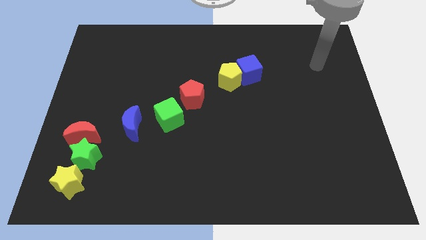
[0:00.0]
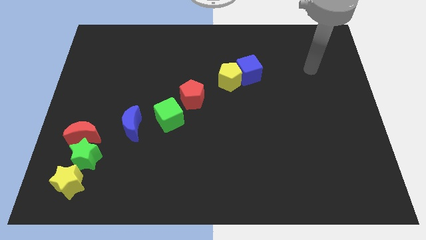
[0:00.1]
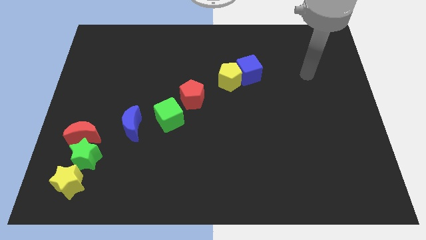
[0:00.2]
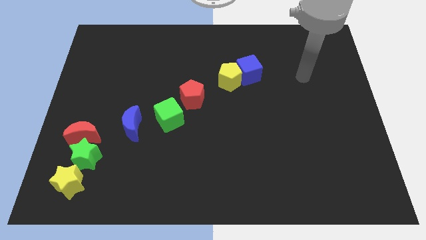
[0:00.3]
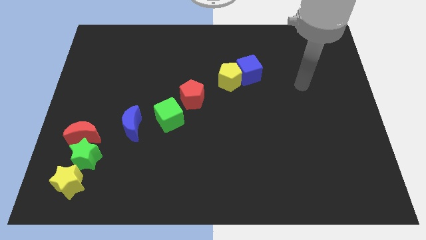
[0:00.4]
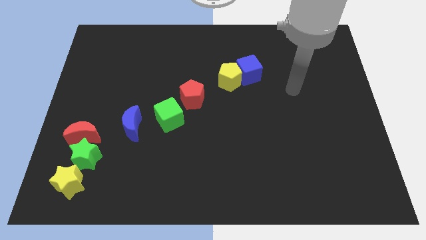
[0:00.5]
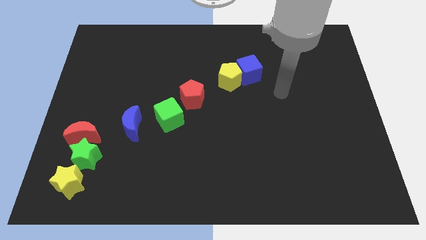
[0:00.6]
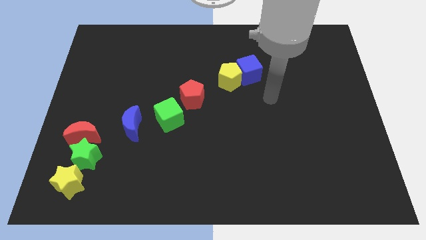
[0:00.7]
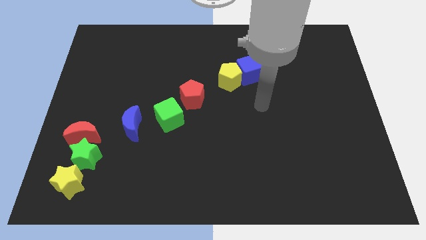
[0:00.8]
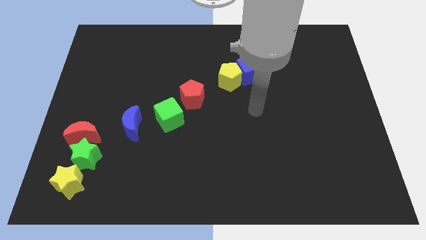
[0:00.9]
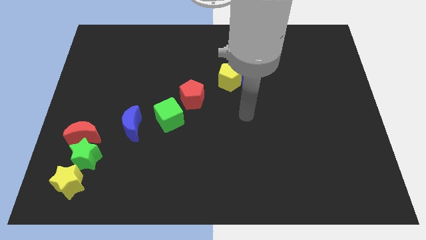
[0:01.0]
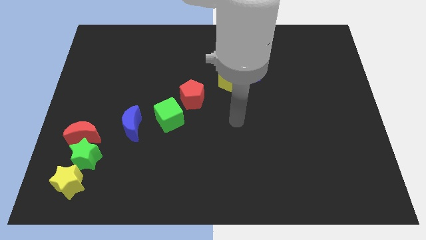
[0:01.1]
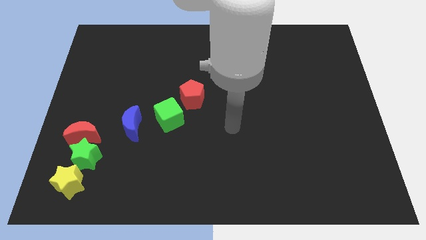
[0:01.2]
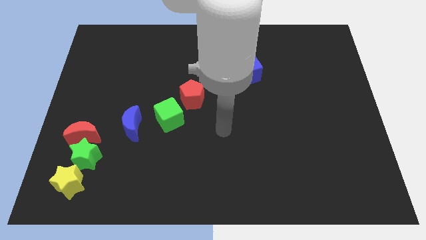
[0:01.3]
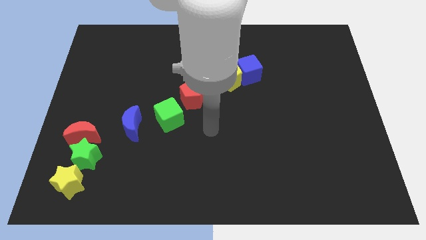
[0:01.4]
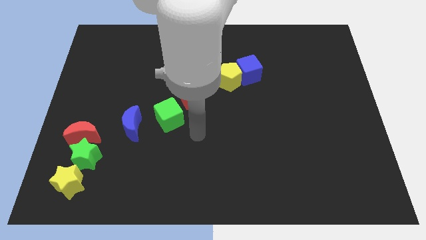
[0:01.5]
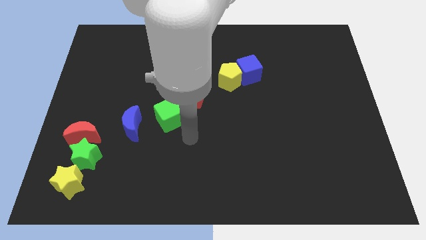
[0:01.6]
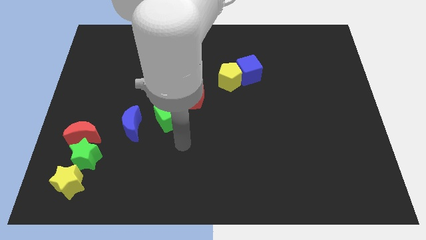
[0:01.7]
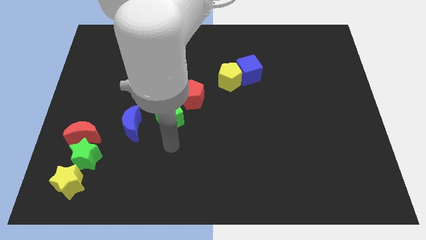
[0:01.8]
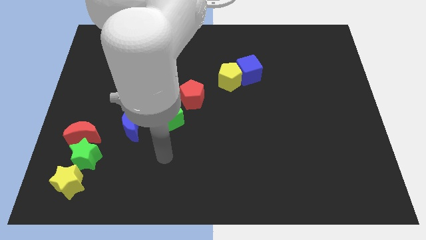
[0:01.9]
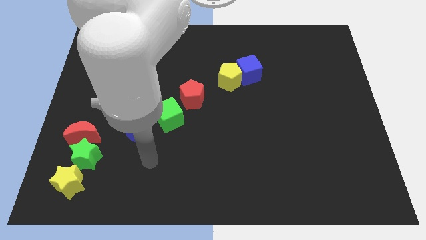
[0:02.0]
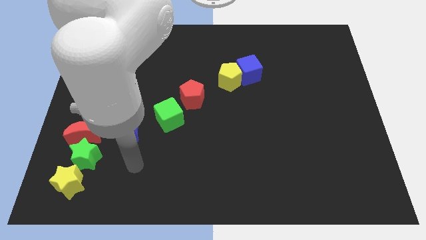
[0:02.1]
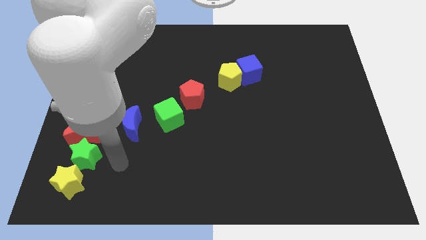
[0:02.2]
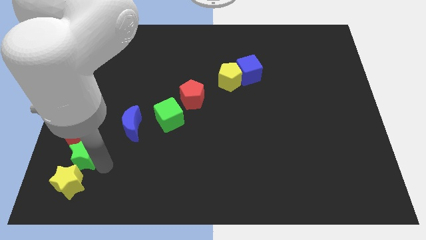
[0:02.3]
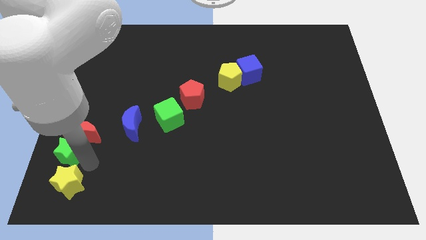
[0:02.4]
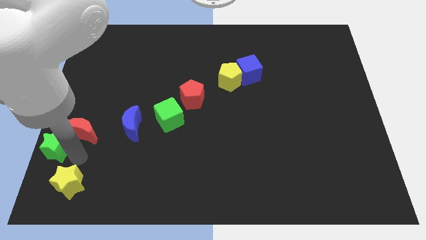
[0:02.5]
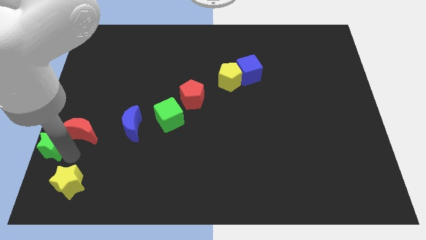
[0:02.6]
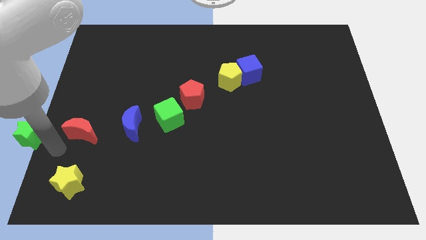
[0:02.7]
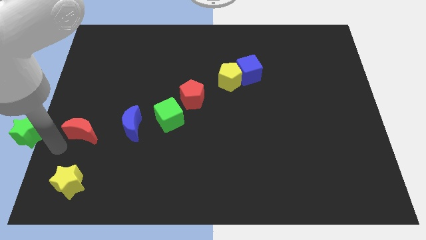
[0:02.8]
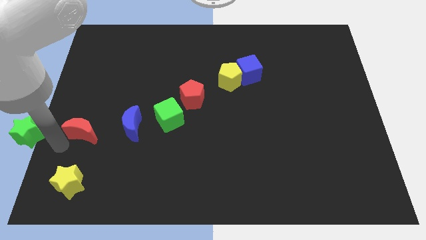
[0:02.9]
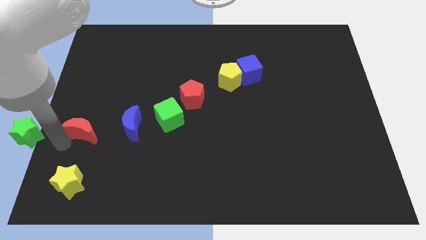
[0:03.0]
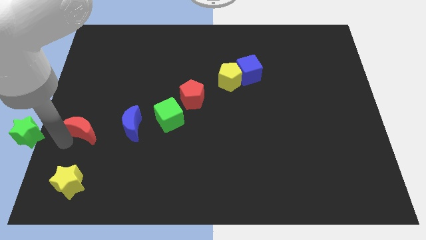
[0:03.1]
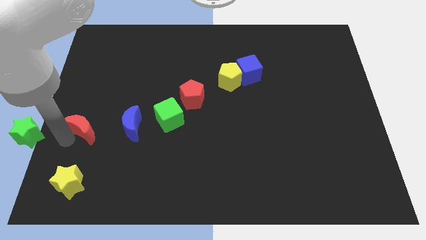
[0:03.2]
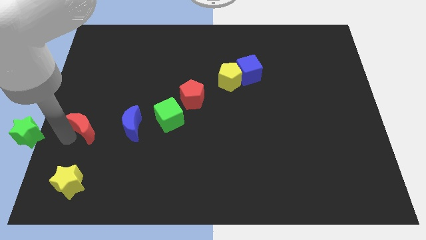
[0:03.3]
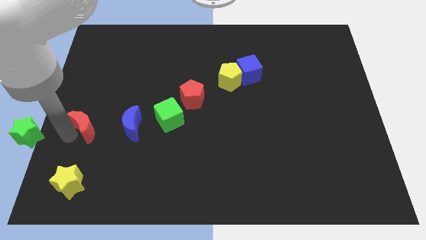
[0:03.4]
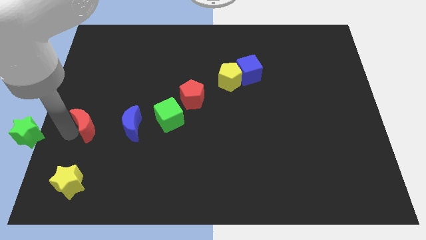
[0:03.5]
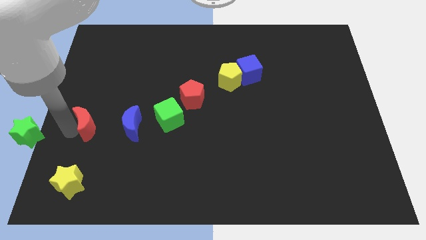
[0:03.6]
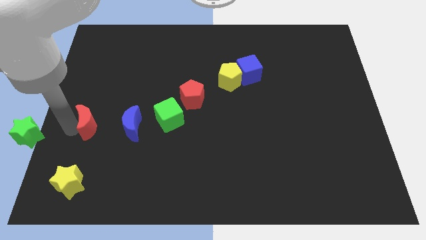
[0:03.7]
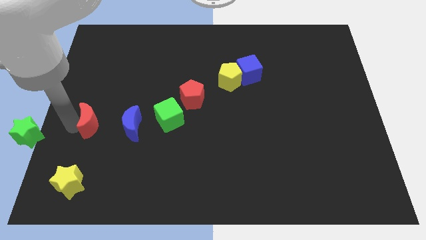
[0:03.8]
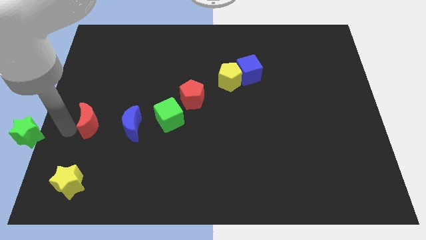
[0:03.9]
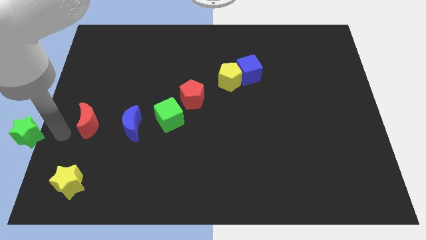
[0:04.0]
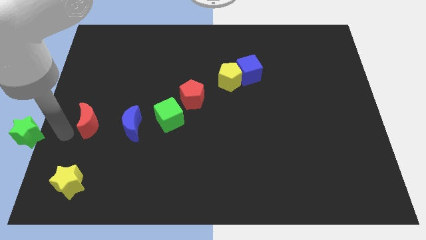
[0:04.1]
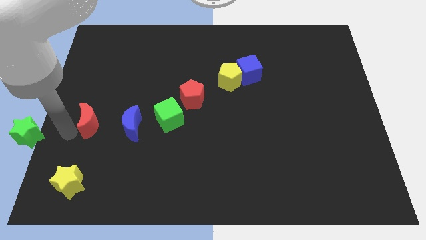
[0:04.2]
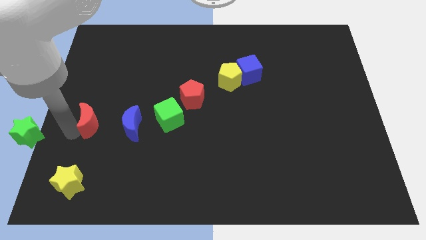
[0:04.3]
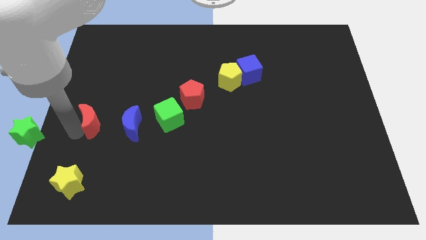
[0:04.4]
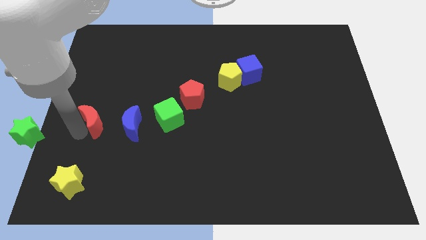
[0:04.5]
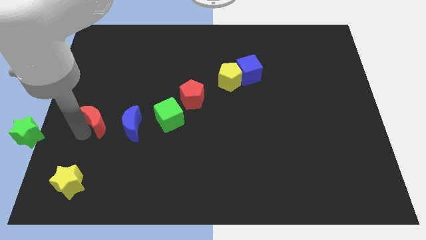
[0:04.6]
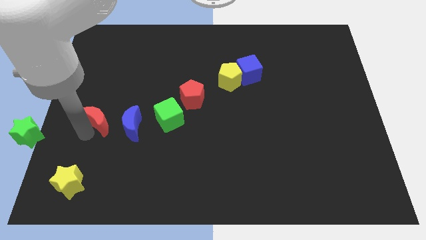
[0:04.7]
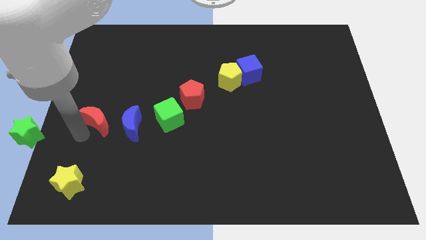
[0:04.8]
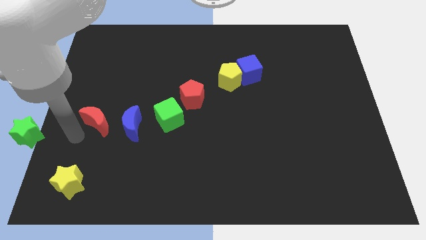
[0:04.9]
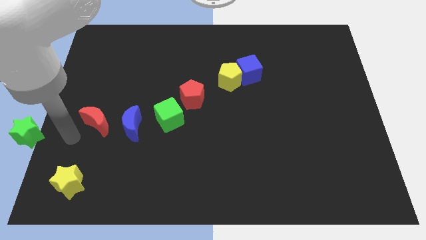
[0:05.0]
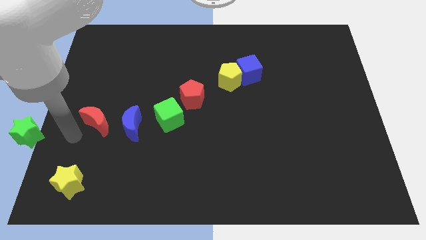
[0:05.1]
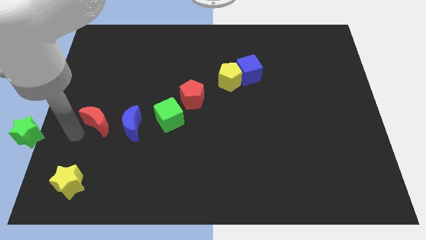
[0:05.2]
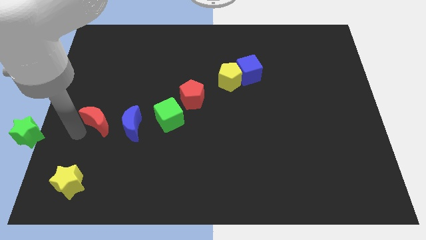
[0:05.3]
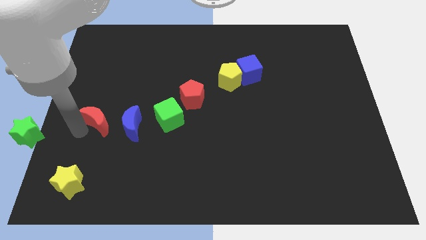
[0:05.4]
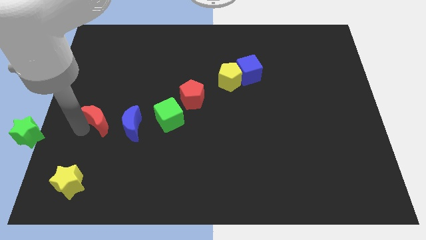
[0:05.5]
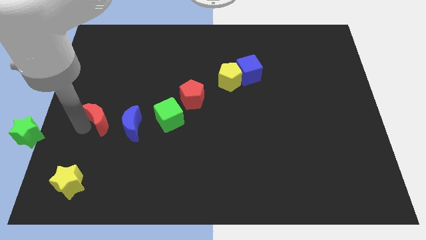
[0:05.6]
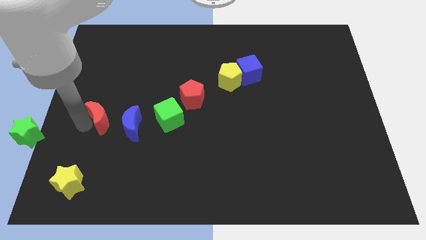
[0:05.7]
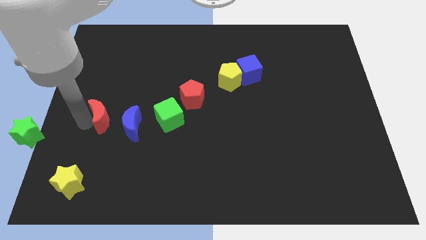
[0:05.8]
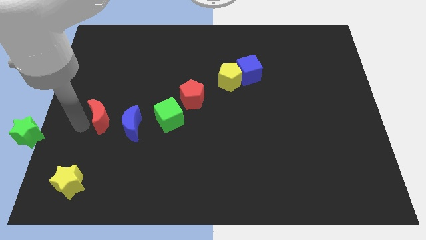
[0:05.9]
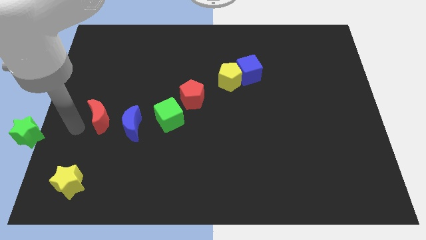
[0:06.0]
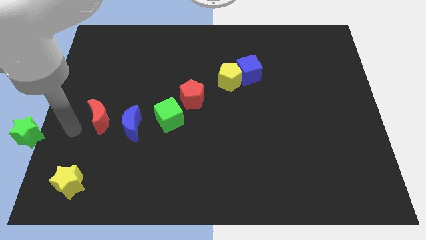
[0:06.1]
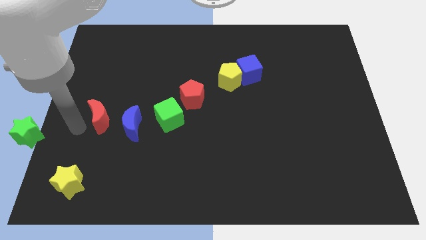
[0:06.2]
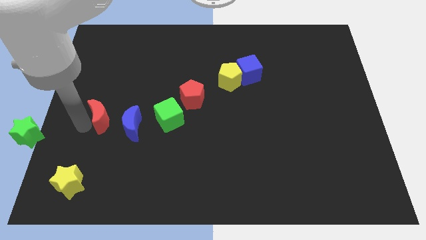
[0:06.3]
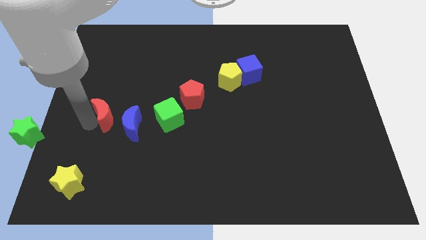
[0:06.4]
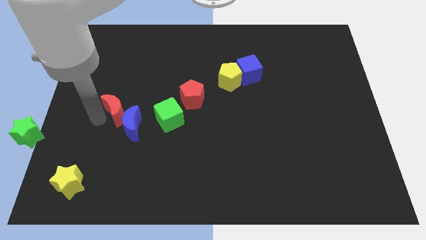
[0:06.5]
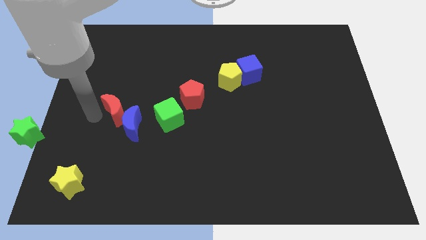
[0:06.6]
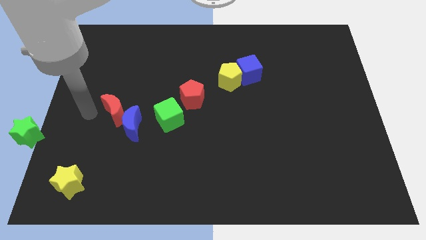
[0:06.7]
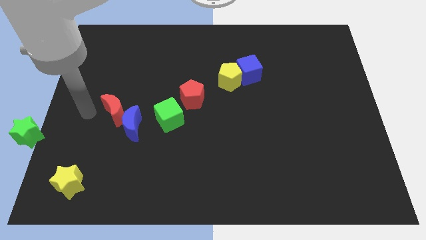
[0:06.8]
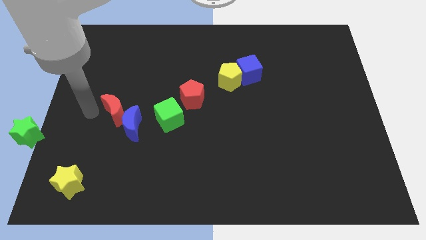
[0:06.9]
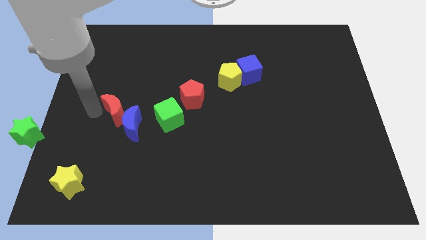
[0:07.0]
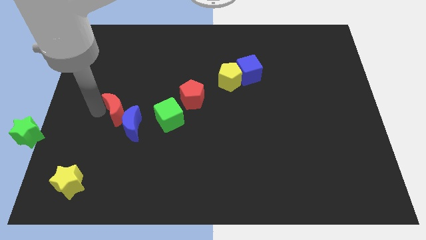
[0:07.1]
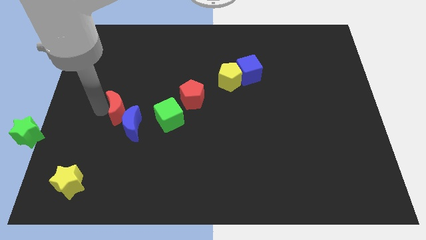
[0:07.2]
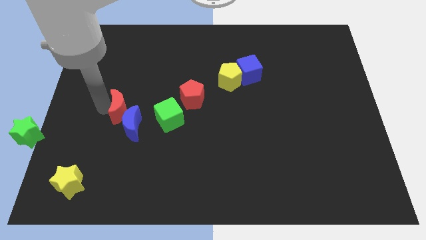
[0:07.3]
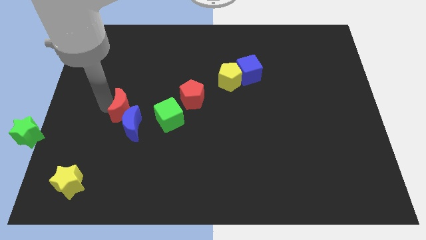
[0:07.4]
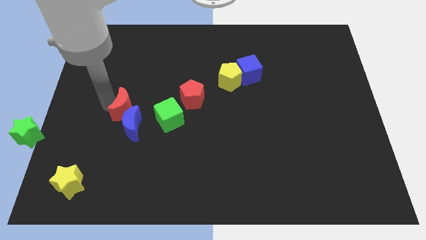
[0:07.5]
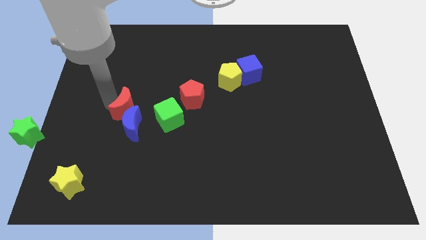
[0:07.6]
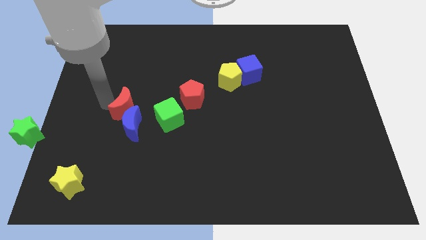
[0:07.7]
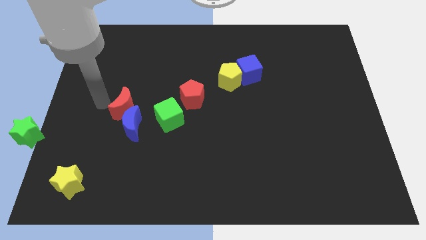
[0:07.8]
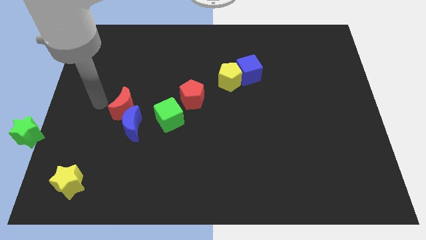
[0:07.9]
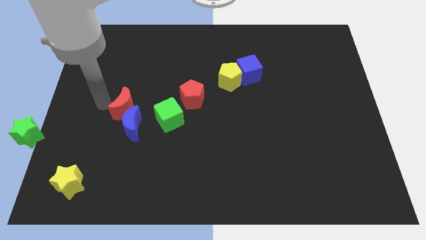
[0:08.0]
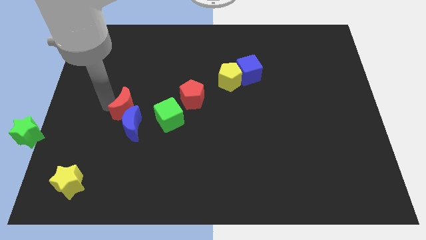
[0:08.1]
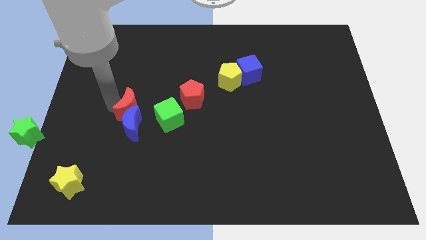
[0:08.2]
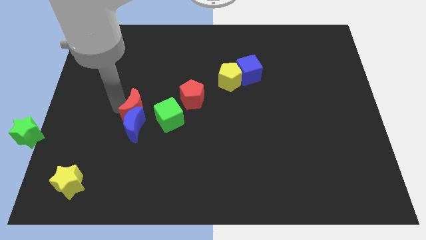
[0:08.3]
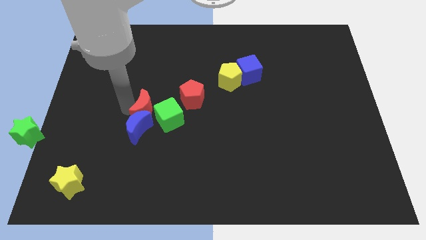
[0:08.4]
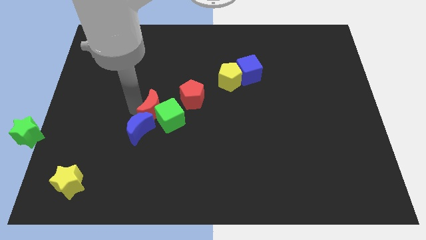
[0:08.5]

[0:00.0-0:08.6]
move the red moon close to the green cube
